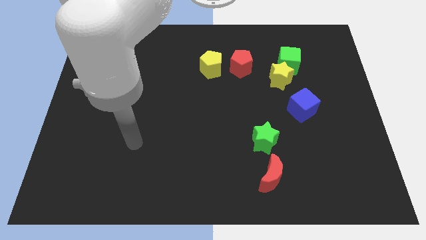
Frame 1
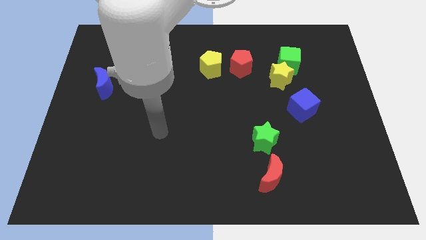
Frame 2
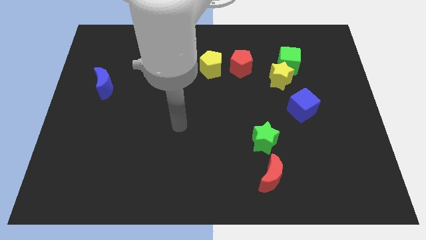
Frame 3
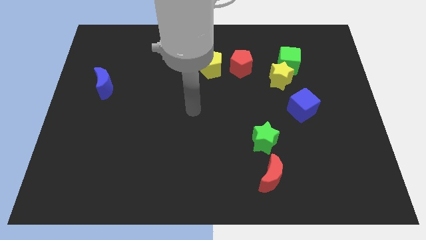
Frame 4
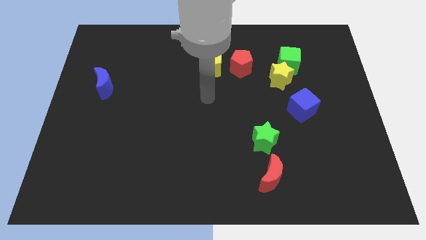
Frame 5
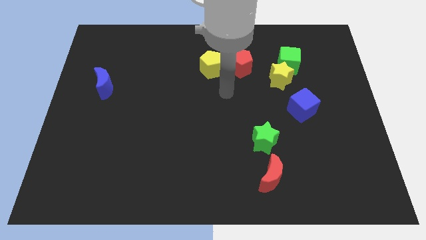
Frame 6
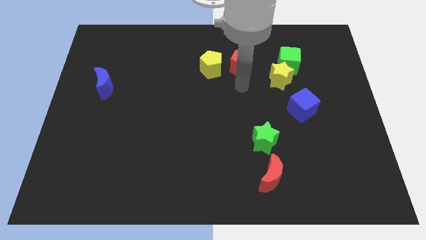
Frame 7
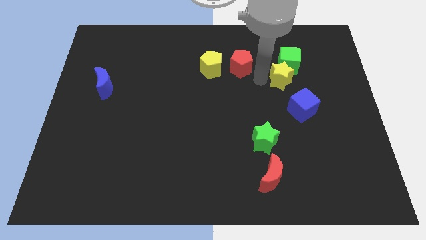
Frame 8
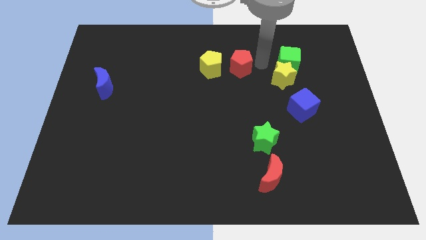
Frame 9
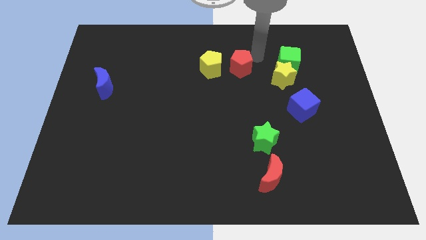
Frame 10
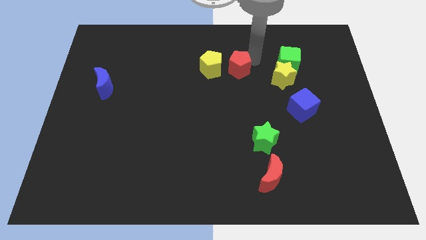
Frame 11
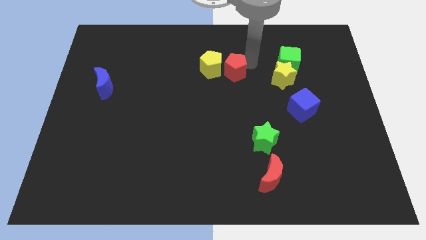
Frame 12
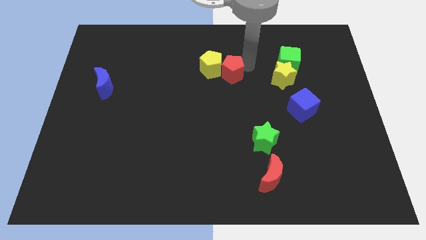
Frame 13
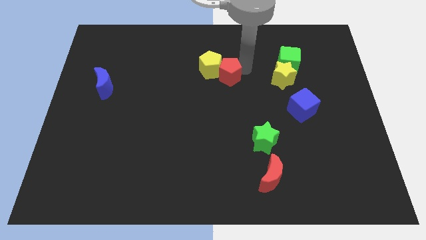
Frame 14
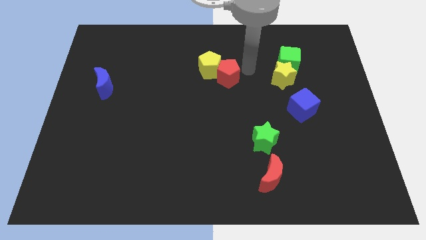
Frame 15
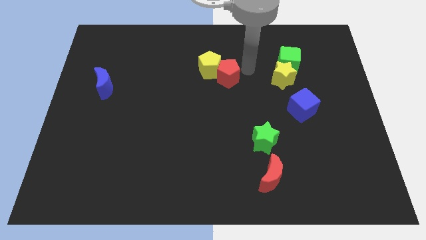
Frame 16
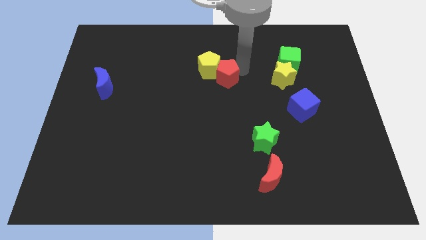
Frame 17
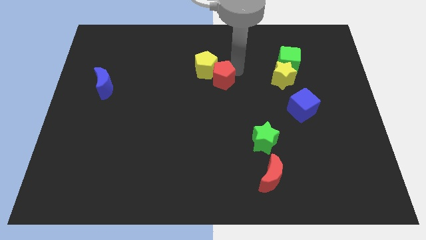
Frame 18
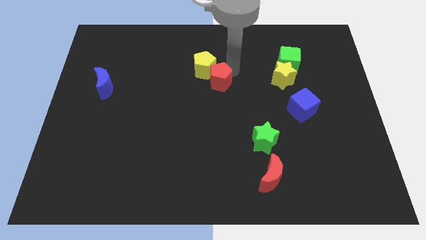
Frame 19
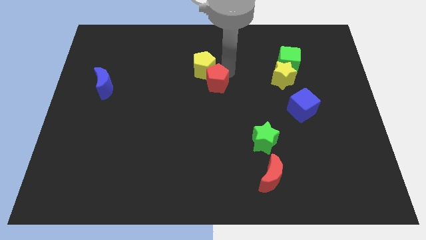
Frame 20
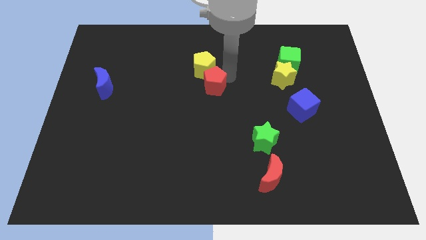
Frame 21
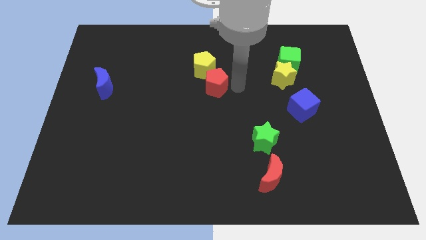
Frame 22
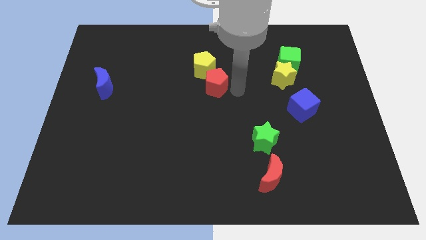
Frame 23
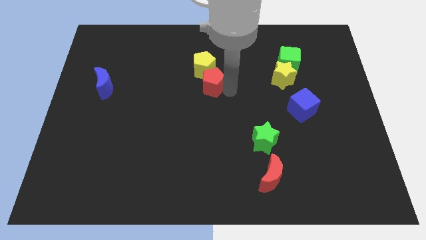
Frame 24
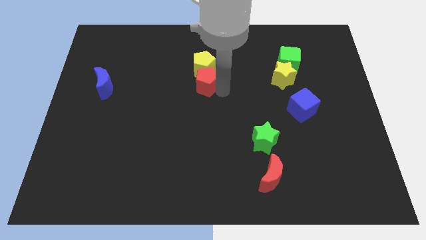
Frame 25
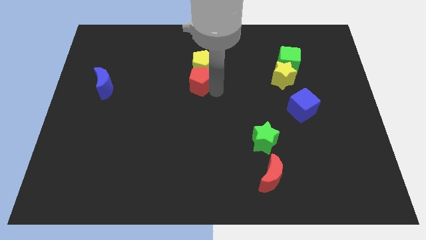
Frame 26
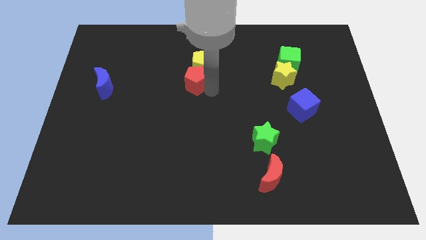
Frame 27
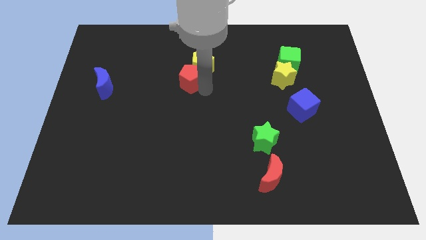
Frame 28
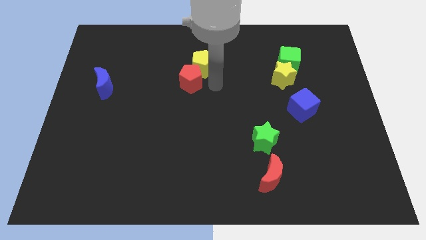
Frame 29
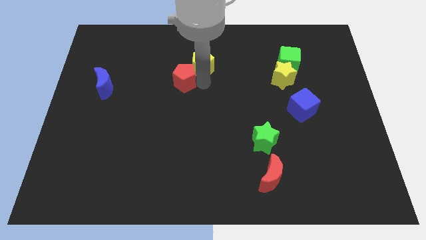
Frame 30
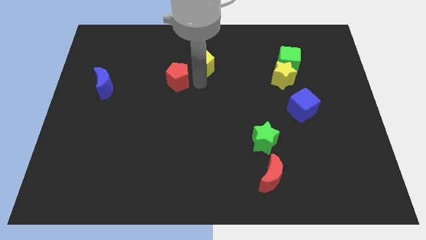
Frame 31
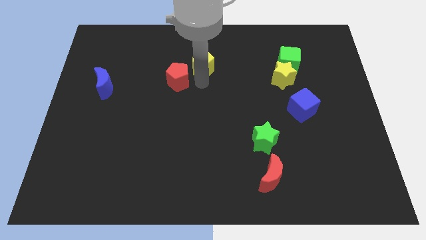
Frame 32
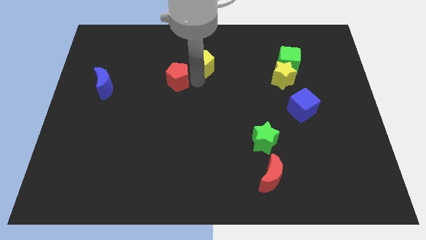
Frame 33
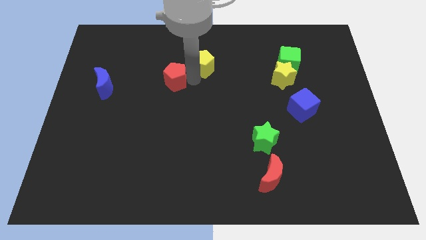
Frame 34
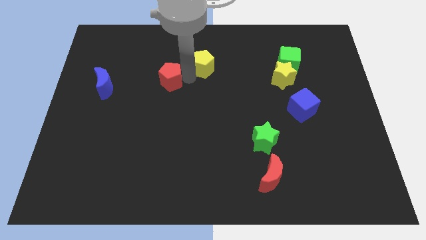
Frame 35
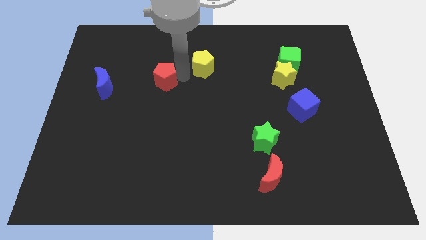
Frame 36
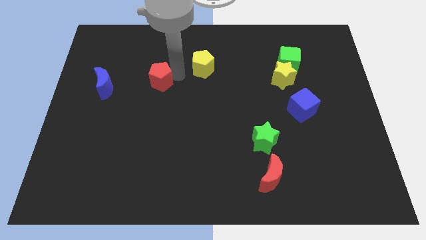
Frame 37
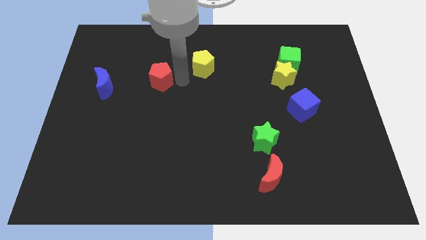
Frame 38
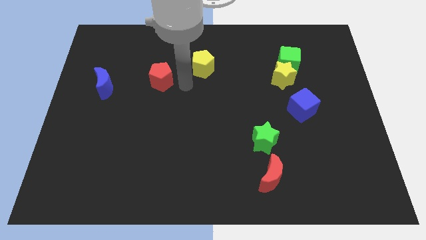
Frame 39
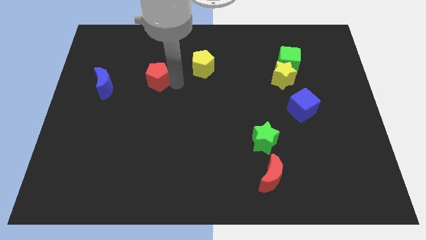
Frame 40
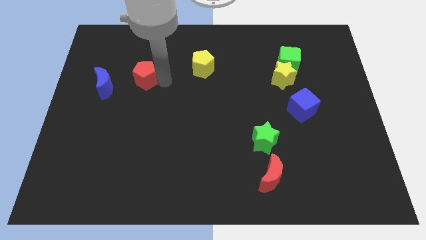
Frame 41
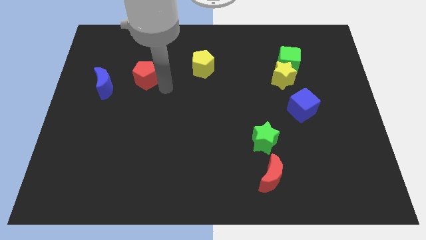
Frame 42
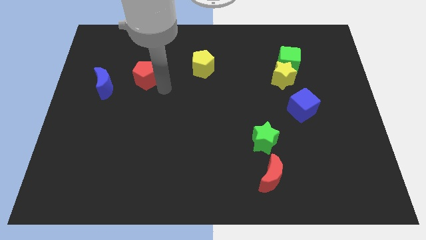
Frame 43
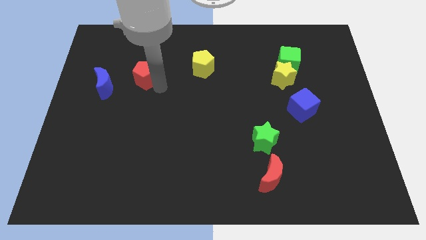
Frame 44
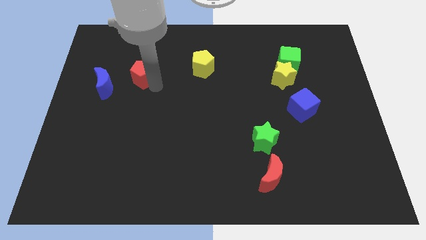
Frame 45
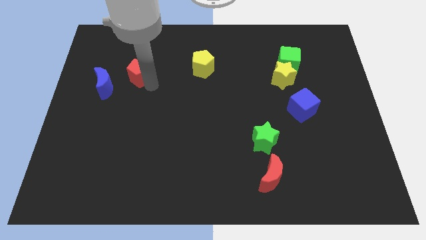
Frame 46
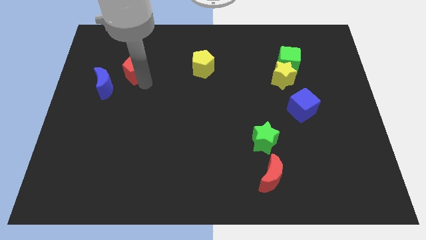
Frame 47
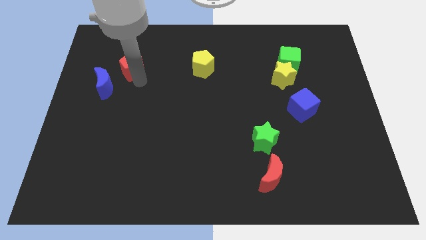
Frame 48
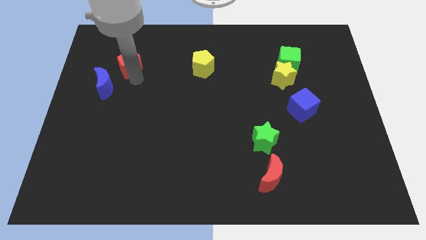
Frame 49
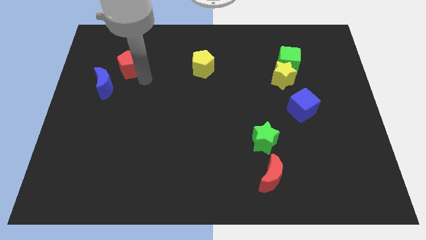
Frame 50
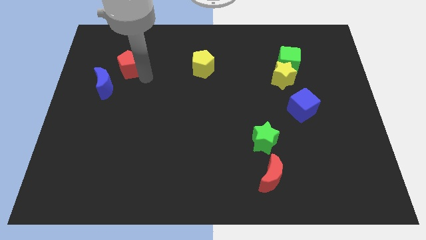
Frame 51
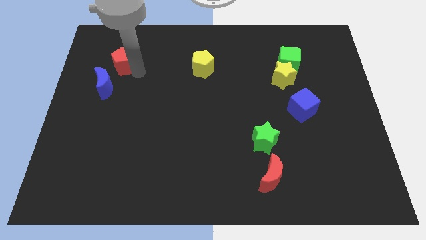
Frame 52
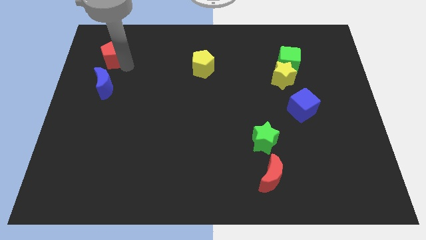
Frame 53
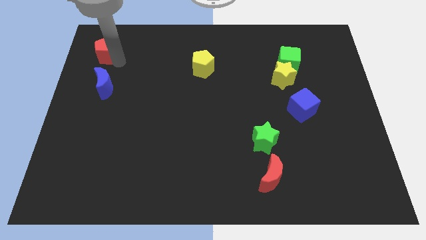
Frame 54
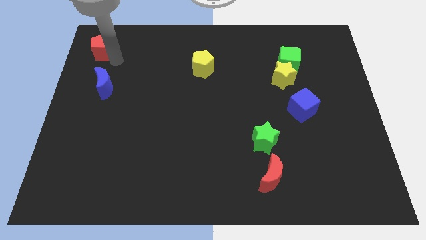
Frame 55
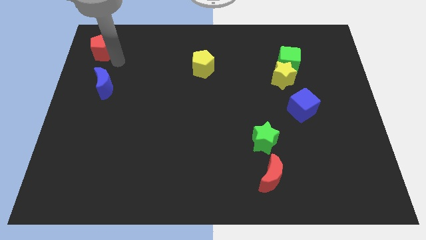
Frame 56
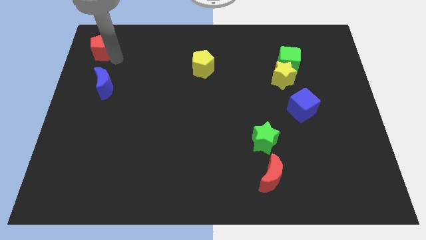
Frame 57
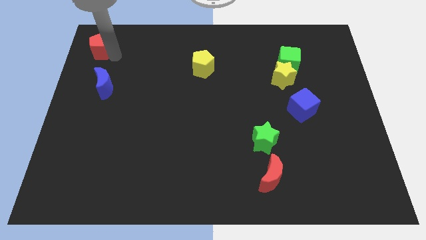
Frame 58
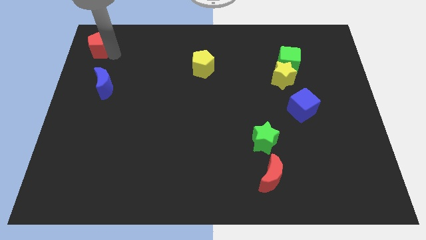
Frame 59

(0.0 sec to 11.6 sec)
push the red pentagon to the top left corner
